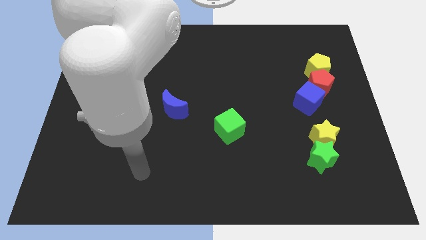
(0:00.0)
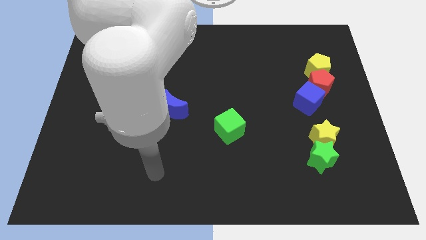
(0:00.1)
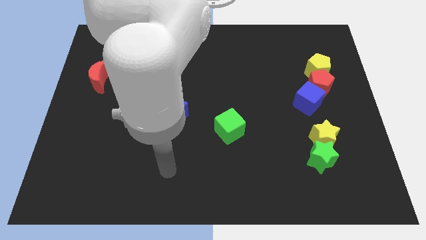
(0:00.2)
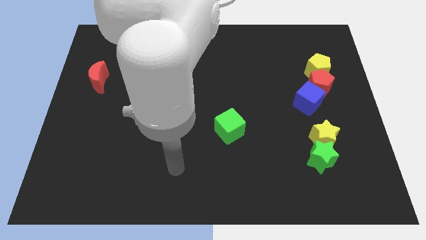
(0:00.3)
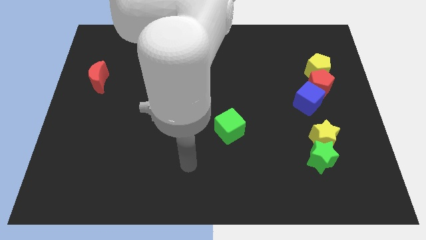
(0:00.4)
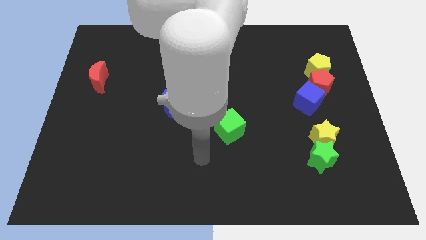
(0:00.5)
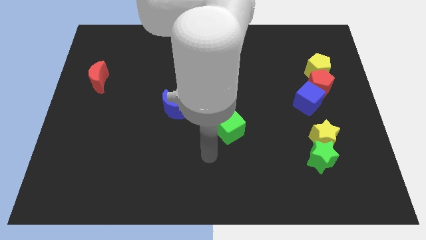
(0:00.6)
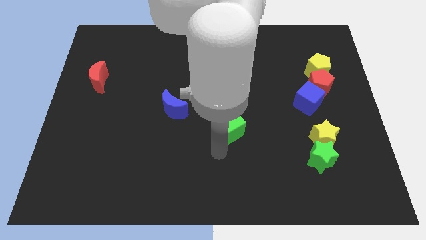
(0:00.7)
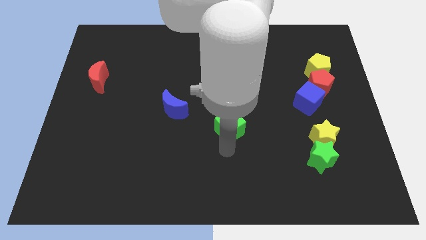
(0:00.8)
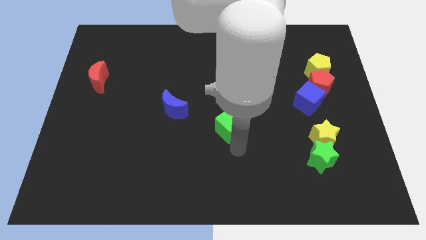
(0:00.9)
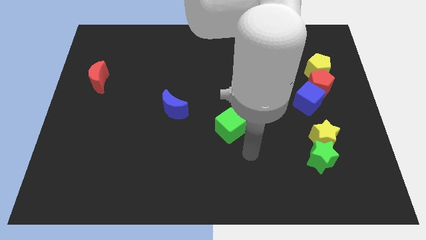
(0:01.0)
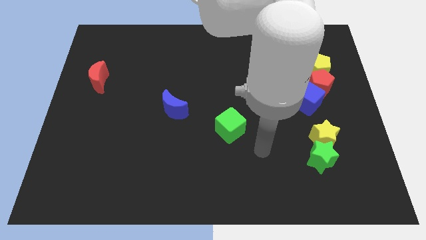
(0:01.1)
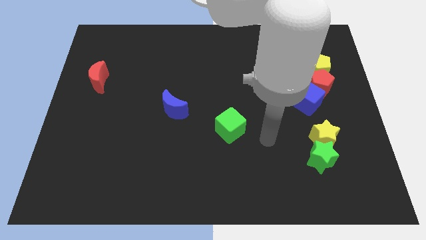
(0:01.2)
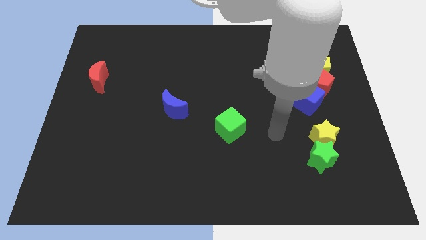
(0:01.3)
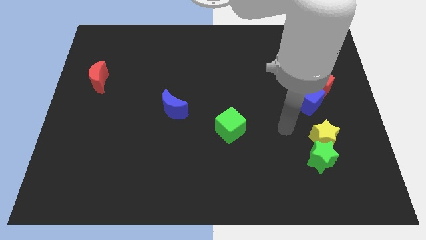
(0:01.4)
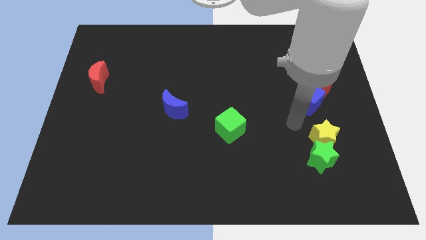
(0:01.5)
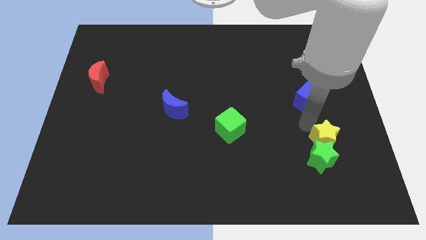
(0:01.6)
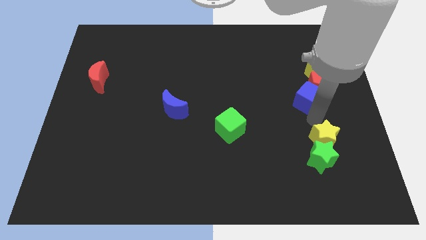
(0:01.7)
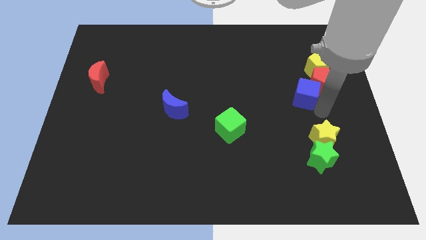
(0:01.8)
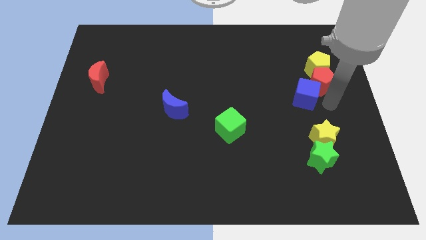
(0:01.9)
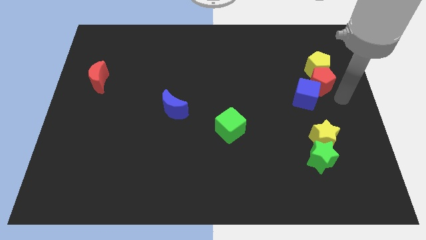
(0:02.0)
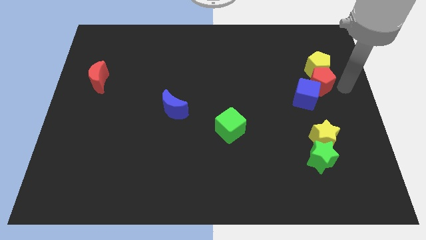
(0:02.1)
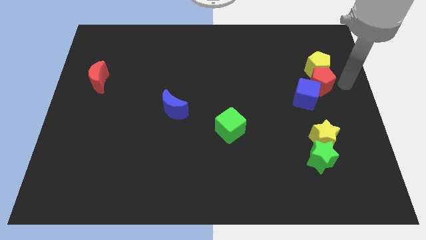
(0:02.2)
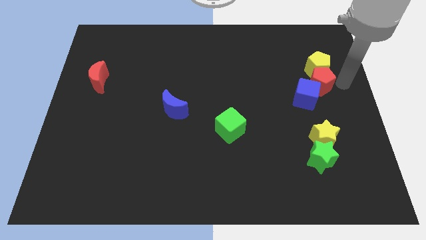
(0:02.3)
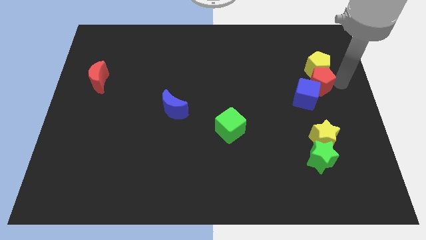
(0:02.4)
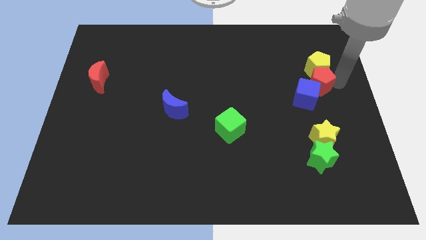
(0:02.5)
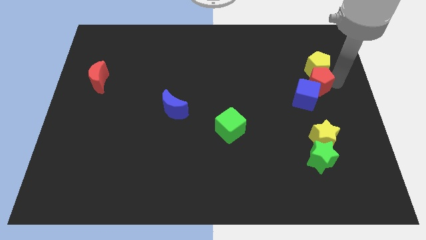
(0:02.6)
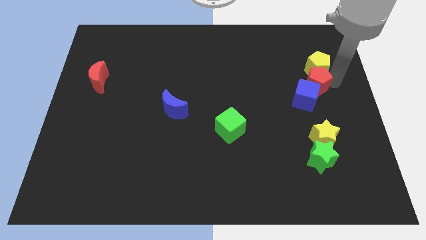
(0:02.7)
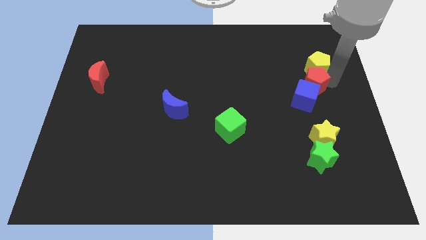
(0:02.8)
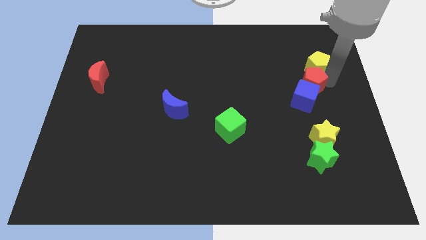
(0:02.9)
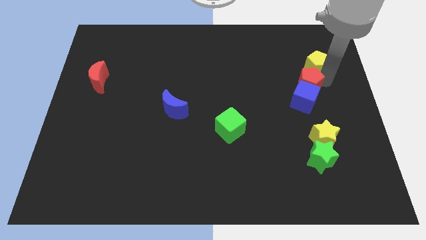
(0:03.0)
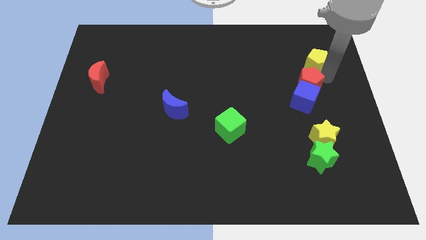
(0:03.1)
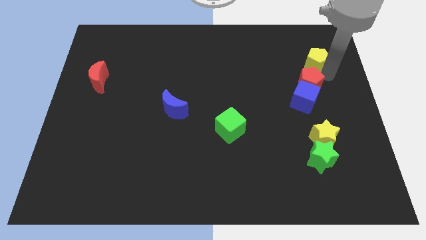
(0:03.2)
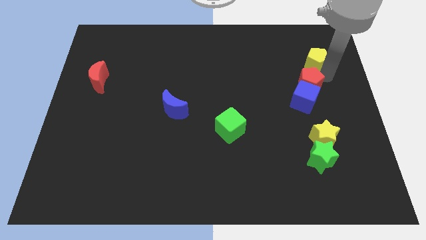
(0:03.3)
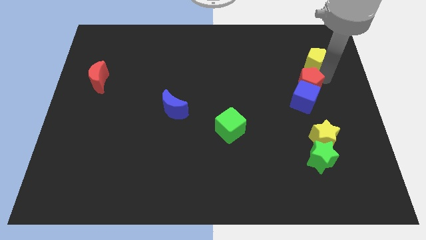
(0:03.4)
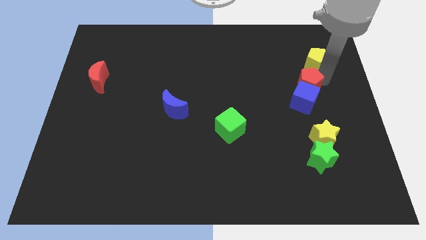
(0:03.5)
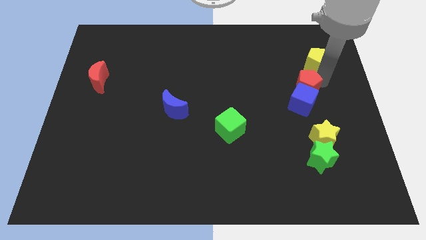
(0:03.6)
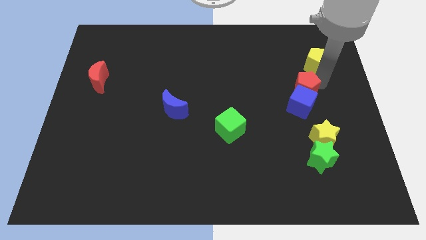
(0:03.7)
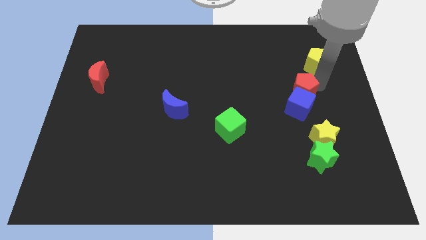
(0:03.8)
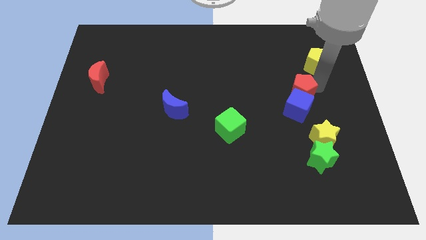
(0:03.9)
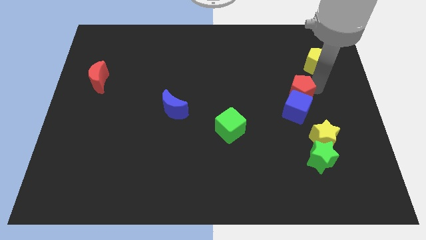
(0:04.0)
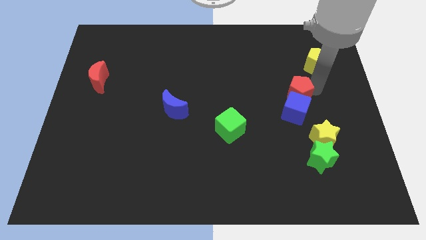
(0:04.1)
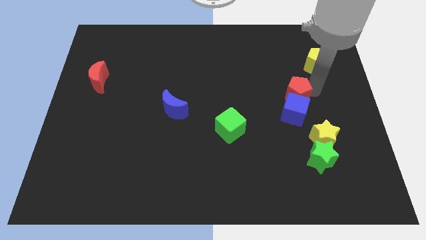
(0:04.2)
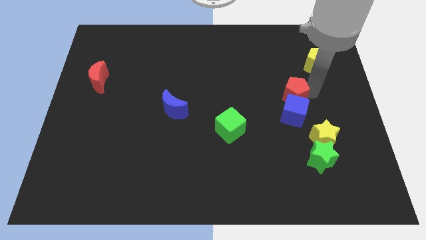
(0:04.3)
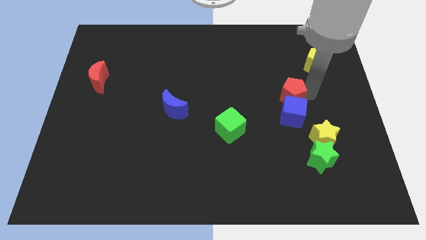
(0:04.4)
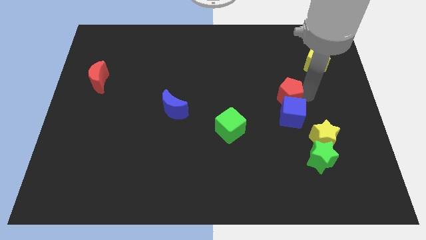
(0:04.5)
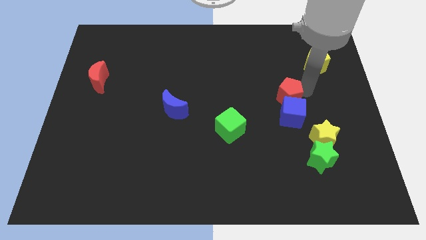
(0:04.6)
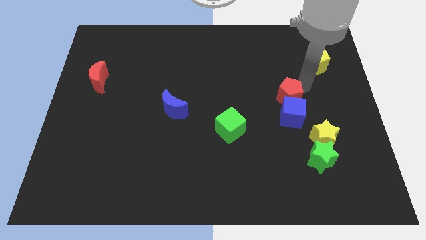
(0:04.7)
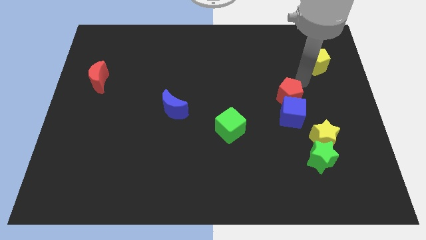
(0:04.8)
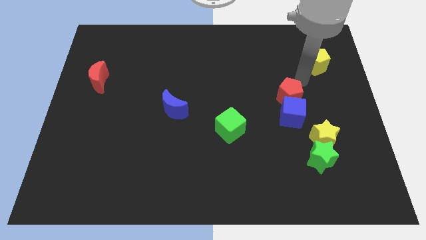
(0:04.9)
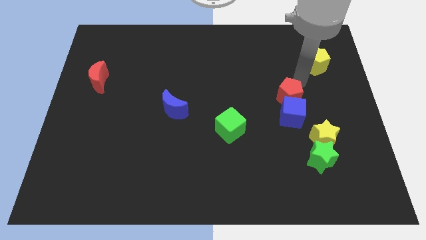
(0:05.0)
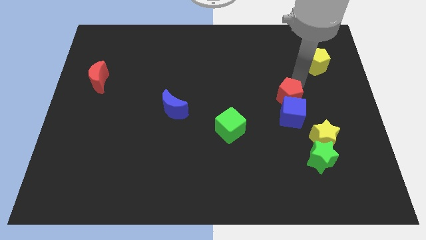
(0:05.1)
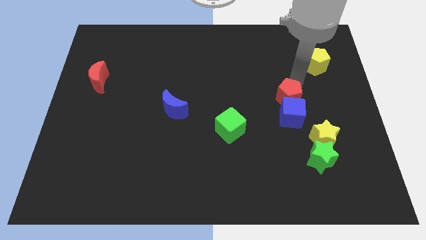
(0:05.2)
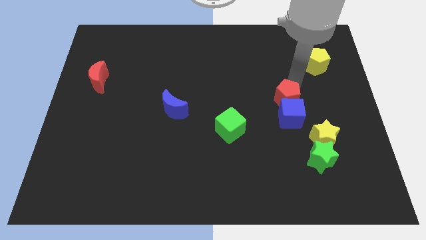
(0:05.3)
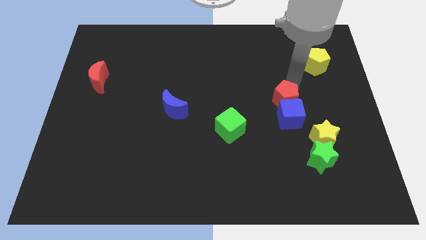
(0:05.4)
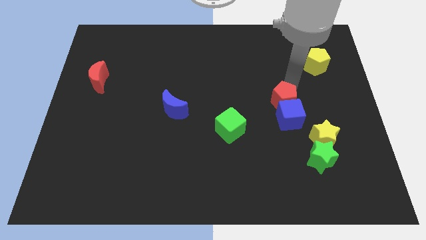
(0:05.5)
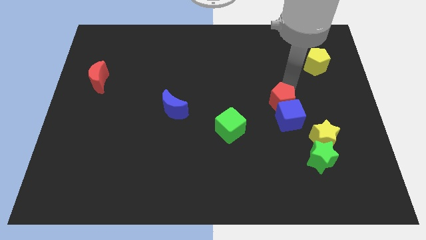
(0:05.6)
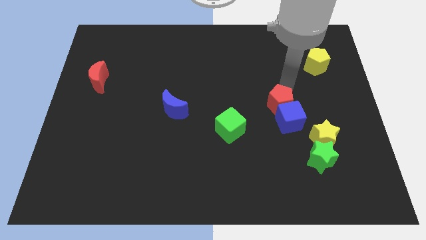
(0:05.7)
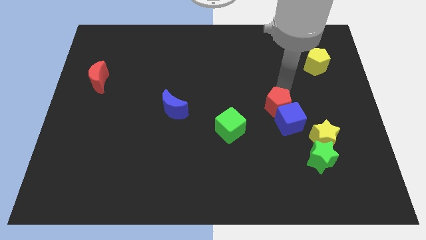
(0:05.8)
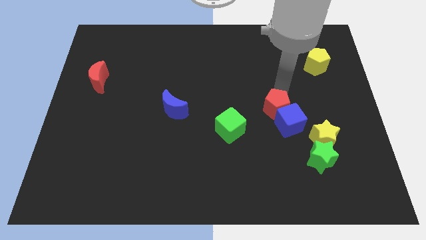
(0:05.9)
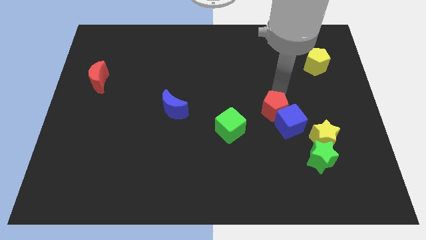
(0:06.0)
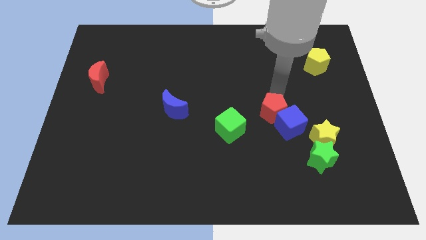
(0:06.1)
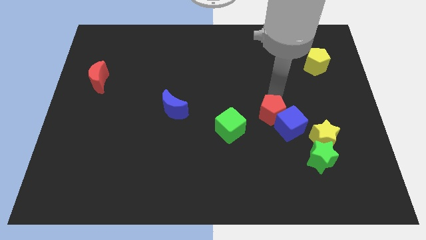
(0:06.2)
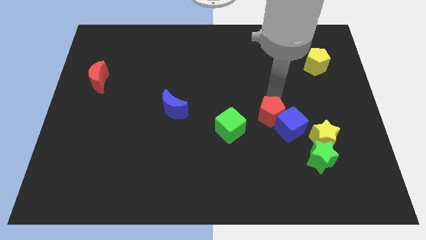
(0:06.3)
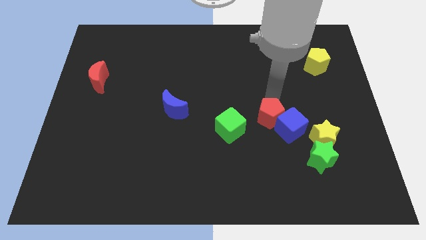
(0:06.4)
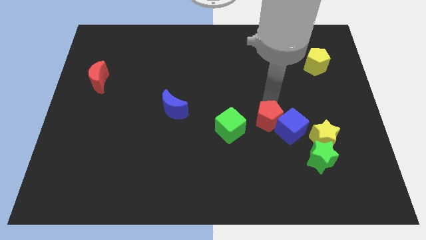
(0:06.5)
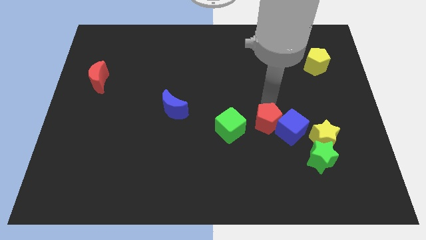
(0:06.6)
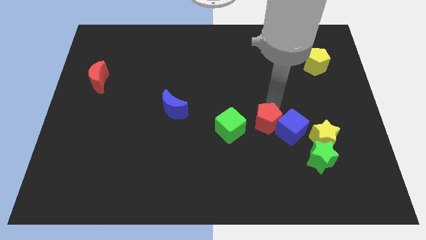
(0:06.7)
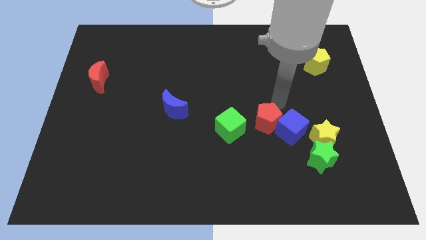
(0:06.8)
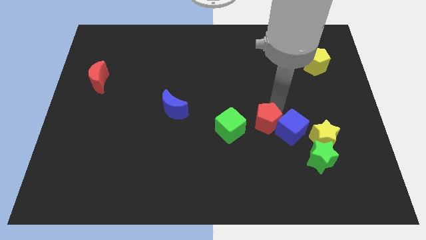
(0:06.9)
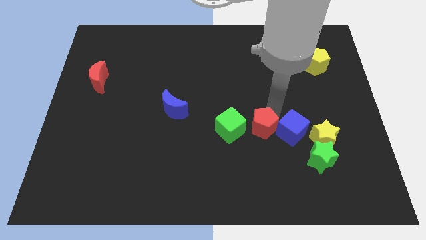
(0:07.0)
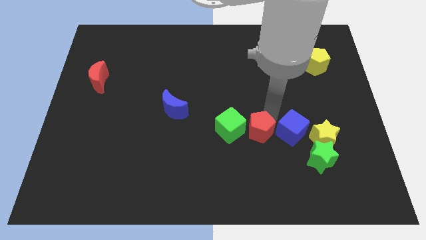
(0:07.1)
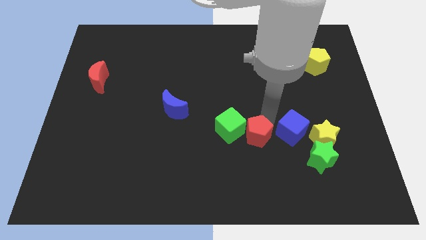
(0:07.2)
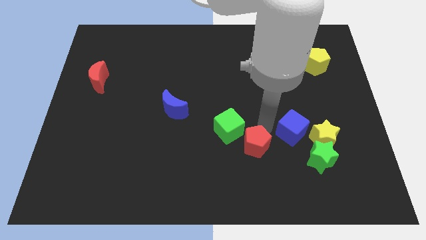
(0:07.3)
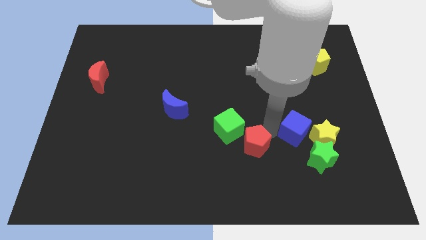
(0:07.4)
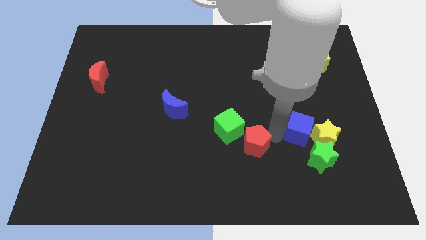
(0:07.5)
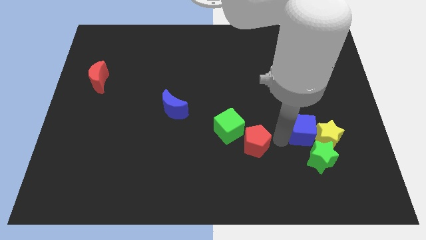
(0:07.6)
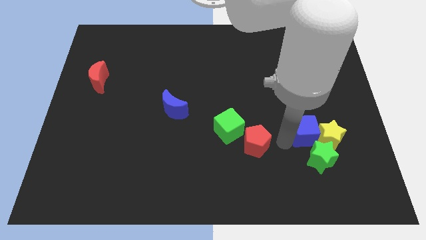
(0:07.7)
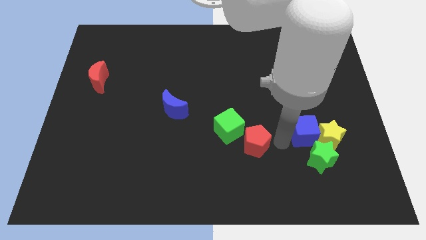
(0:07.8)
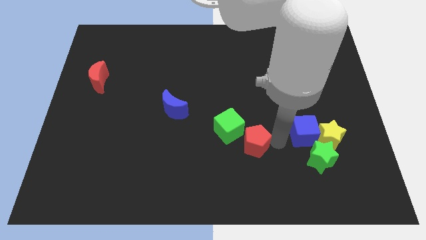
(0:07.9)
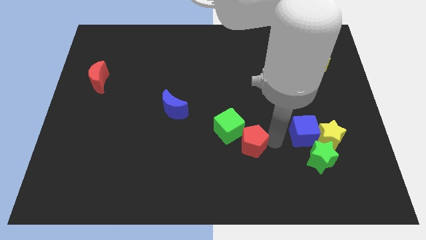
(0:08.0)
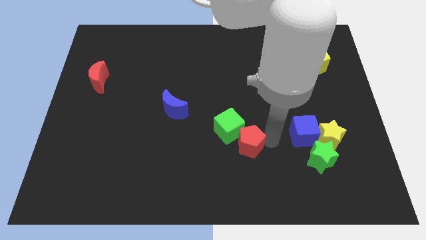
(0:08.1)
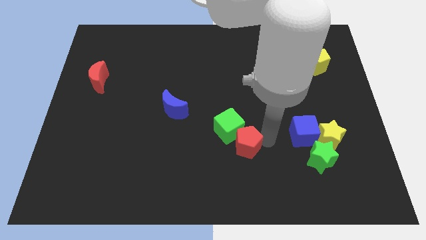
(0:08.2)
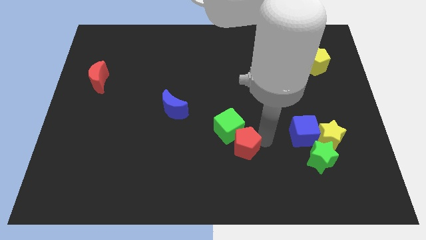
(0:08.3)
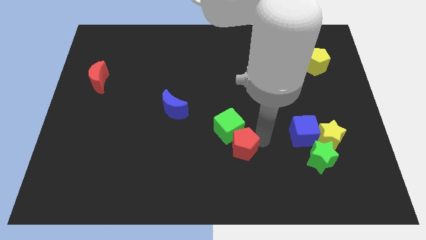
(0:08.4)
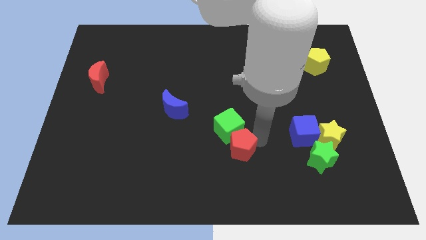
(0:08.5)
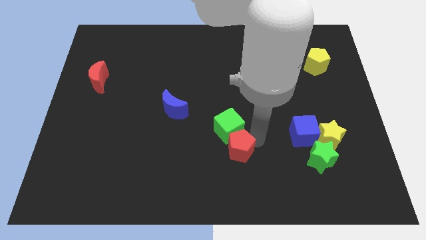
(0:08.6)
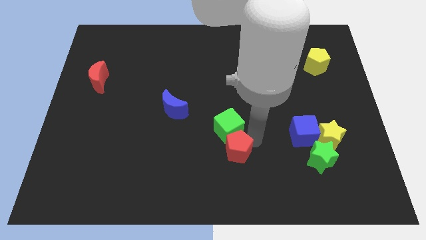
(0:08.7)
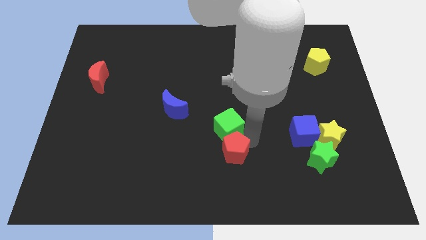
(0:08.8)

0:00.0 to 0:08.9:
move the red pentagon to the bottom left side of the green cube
